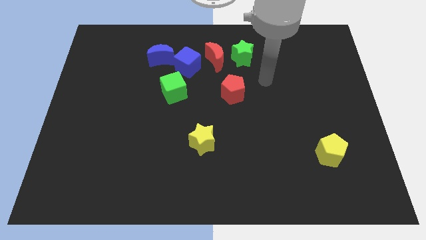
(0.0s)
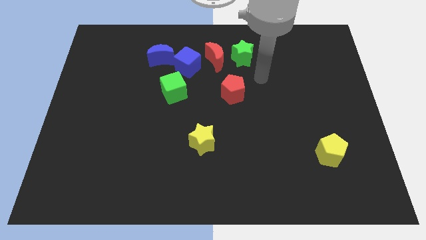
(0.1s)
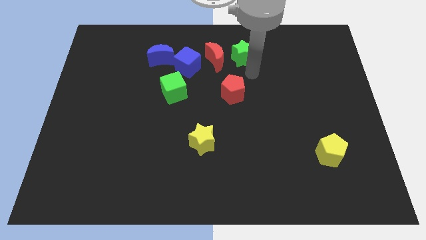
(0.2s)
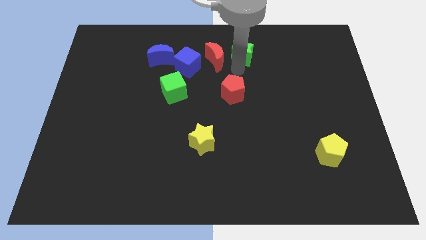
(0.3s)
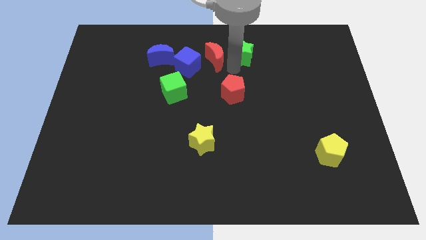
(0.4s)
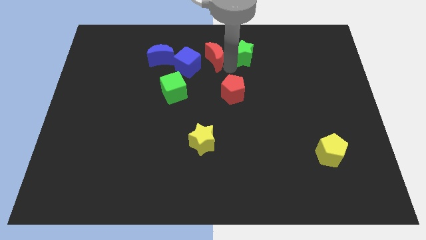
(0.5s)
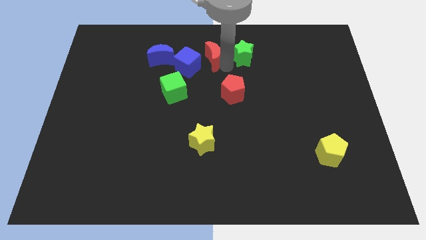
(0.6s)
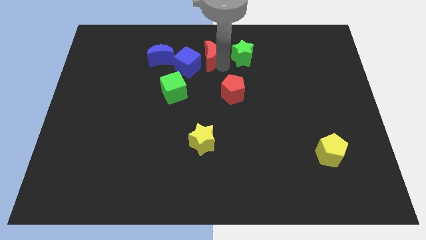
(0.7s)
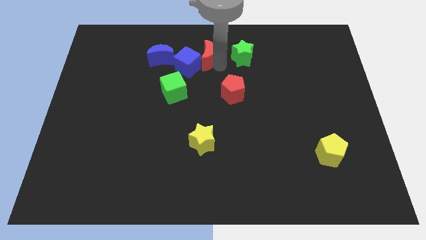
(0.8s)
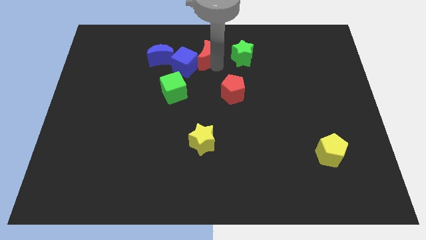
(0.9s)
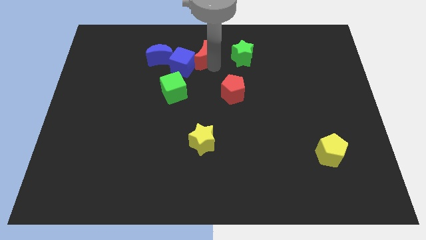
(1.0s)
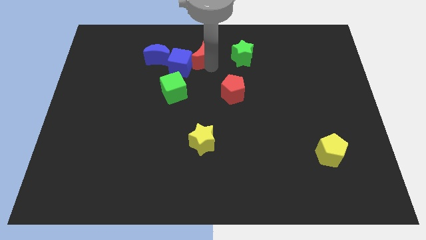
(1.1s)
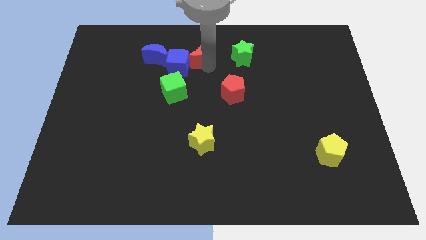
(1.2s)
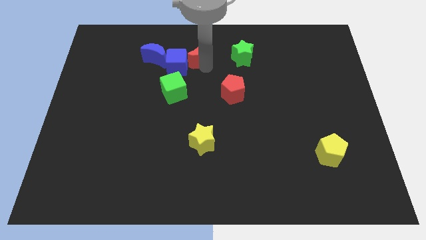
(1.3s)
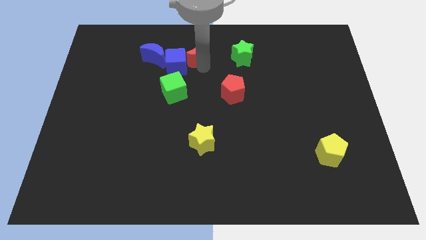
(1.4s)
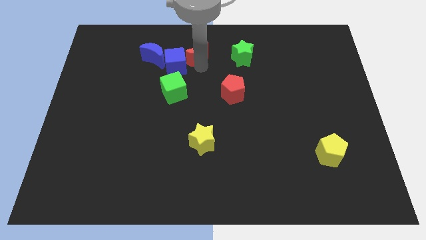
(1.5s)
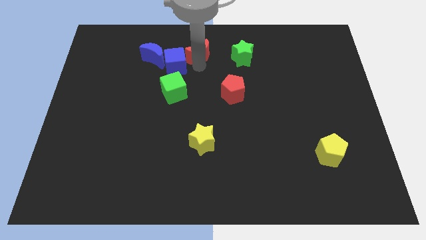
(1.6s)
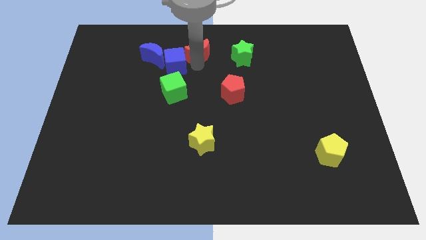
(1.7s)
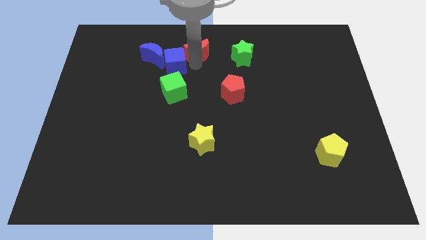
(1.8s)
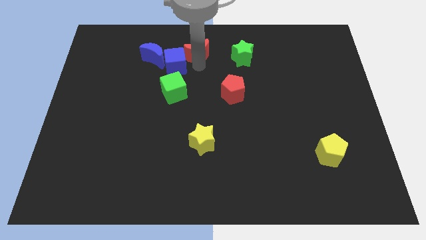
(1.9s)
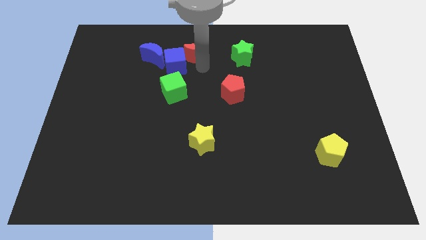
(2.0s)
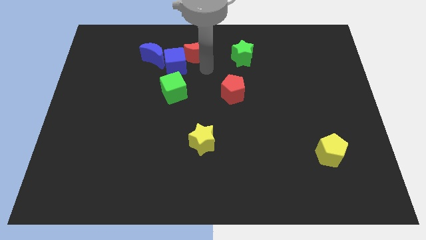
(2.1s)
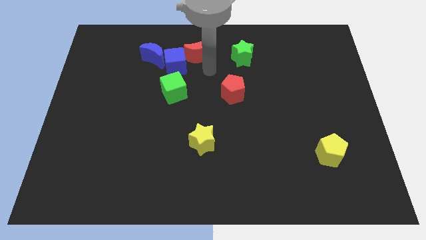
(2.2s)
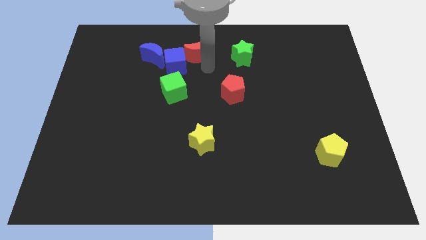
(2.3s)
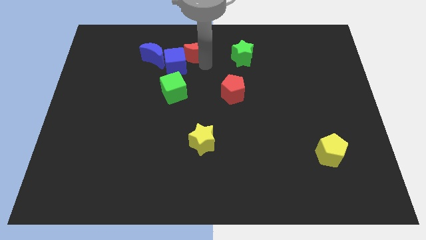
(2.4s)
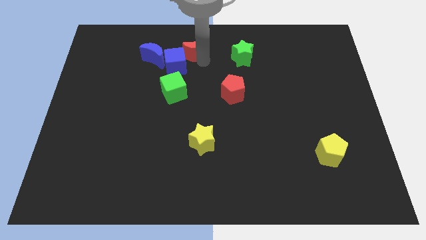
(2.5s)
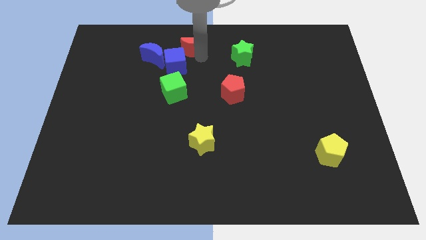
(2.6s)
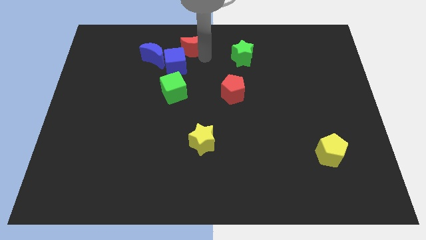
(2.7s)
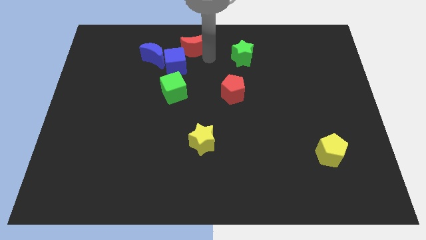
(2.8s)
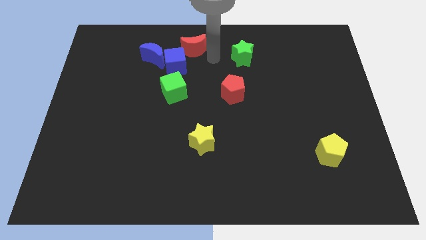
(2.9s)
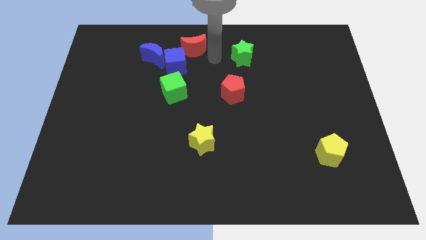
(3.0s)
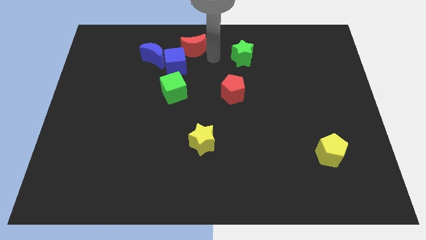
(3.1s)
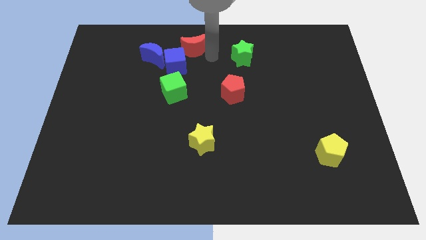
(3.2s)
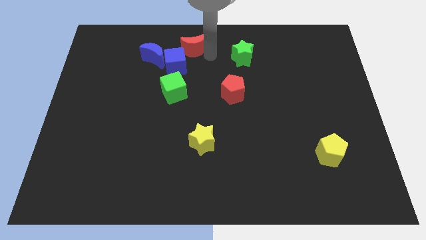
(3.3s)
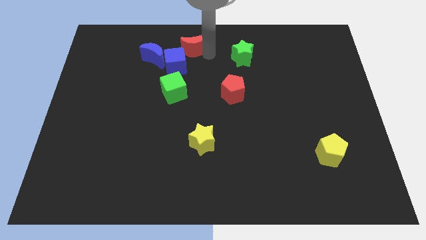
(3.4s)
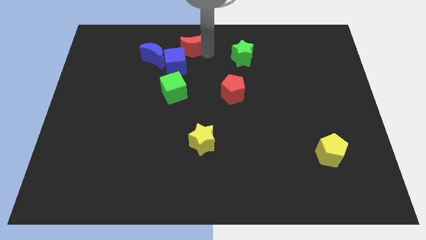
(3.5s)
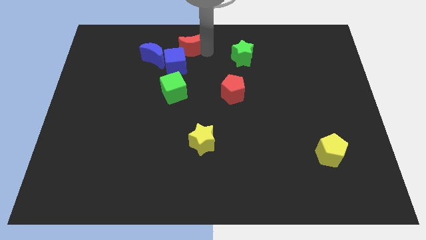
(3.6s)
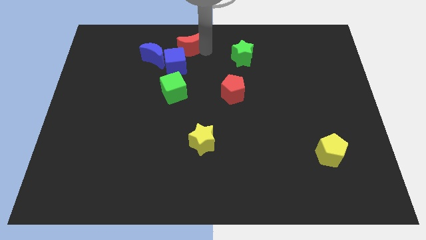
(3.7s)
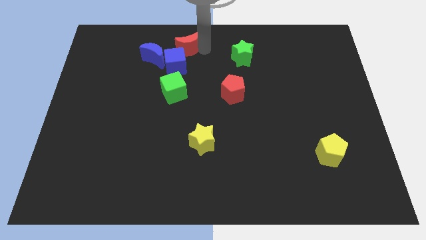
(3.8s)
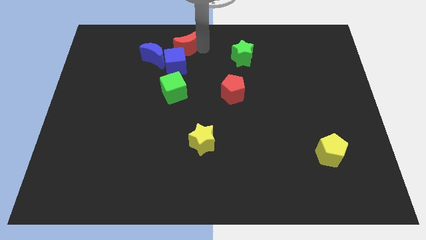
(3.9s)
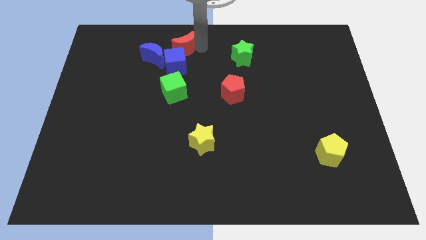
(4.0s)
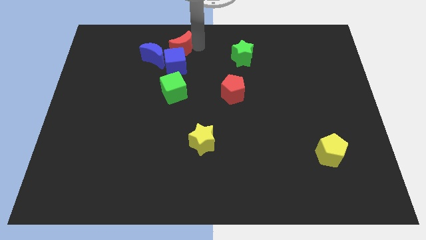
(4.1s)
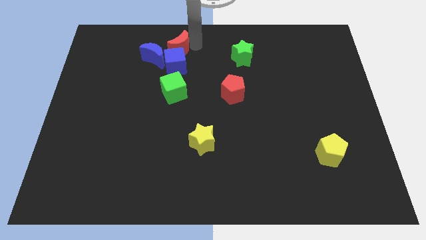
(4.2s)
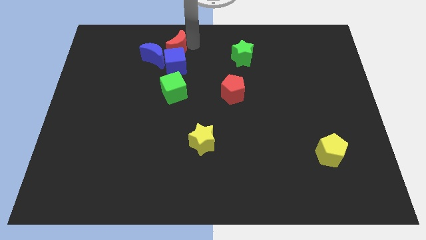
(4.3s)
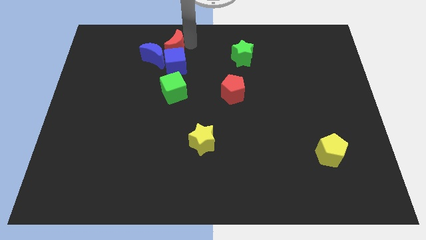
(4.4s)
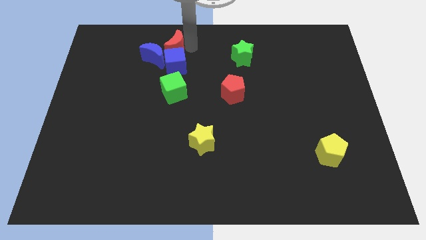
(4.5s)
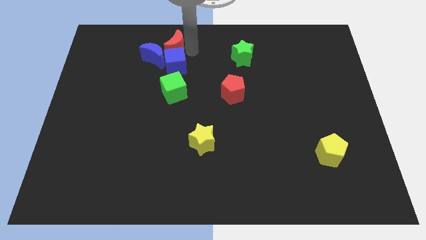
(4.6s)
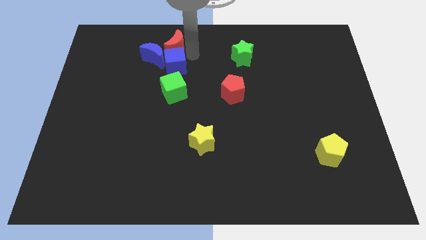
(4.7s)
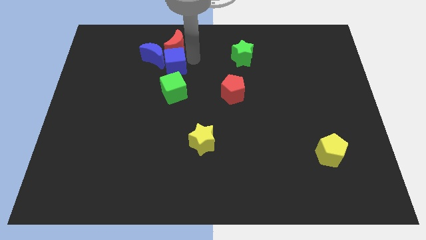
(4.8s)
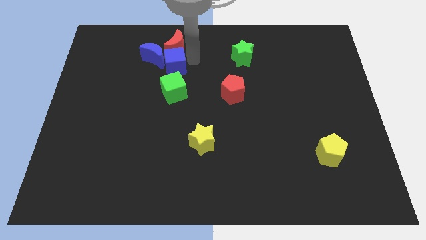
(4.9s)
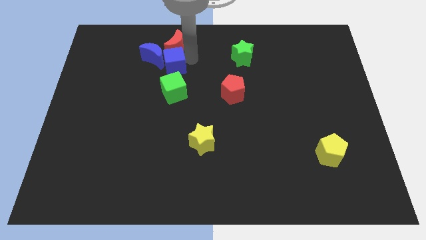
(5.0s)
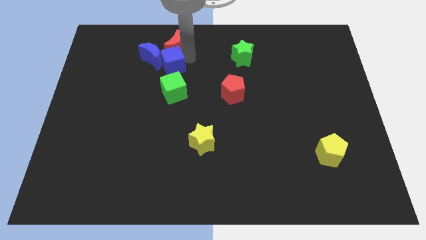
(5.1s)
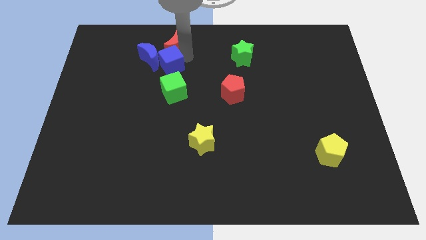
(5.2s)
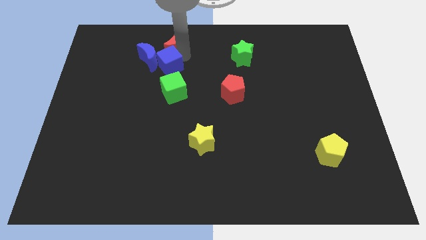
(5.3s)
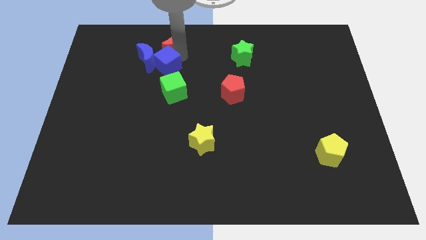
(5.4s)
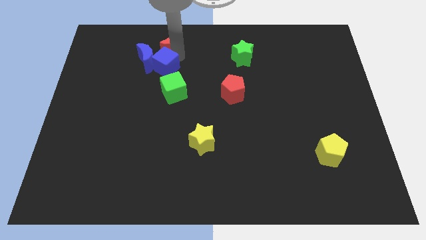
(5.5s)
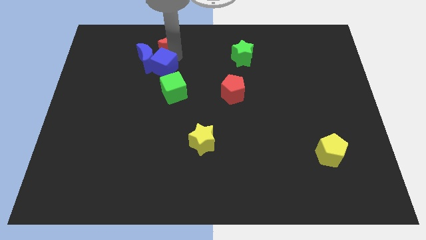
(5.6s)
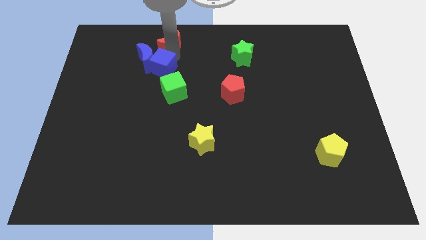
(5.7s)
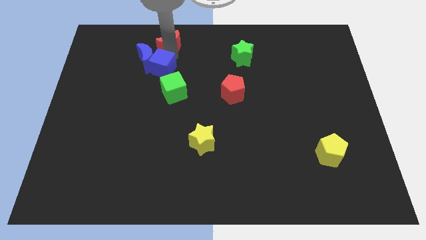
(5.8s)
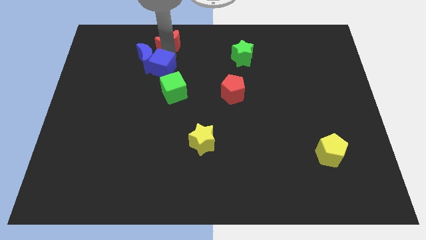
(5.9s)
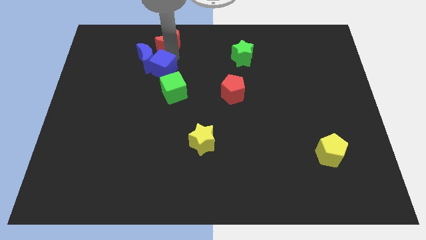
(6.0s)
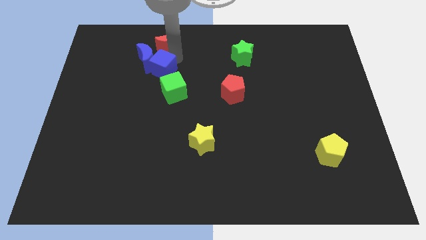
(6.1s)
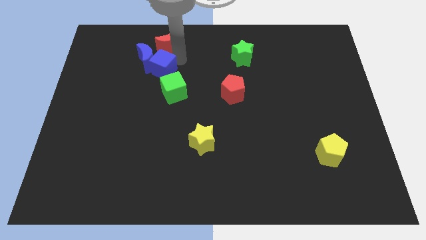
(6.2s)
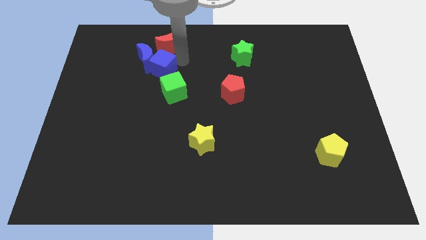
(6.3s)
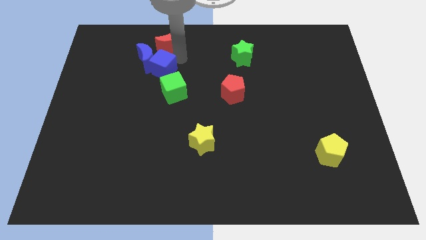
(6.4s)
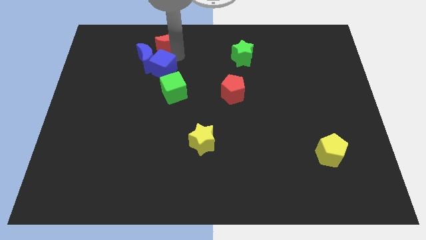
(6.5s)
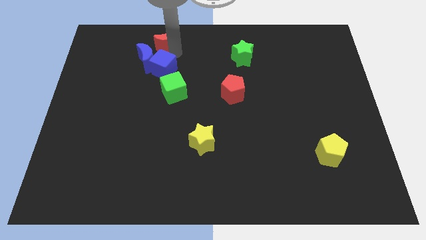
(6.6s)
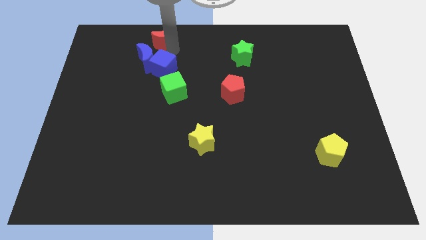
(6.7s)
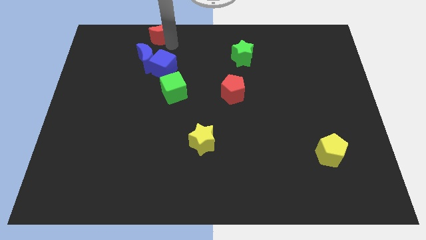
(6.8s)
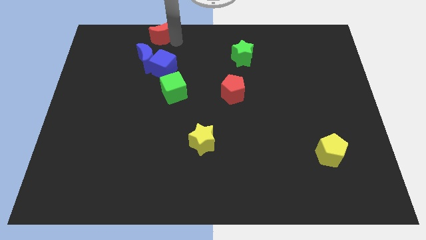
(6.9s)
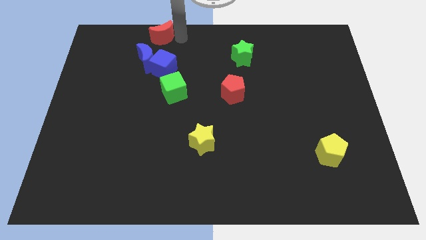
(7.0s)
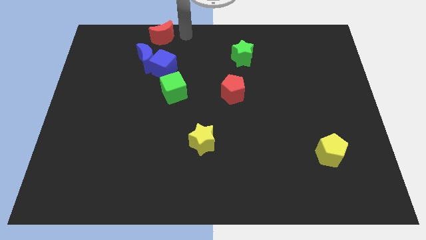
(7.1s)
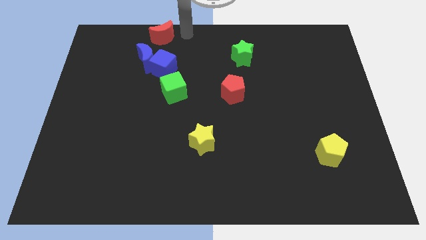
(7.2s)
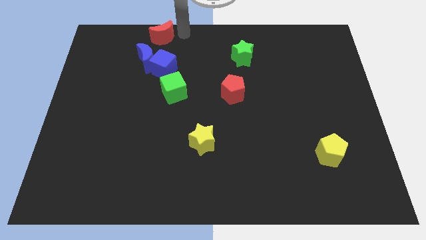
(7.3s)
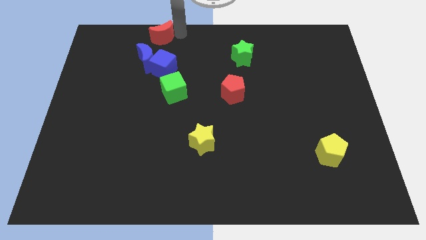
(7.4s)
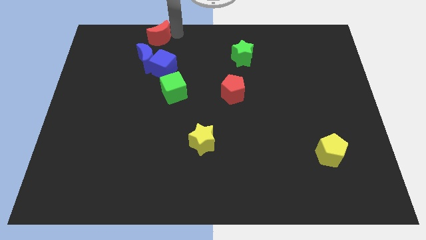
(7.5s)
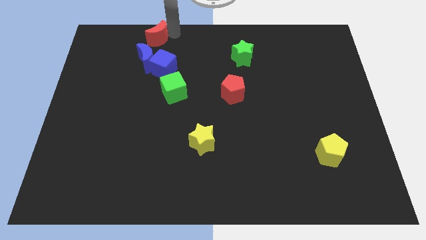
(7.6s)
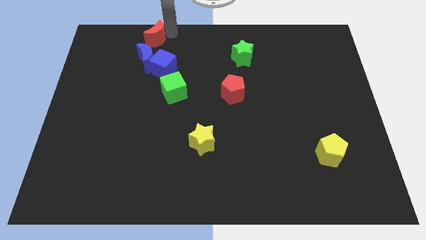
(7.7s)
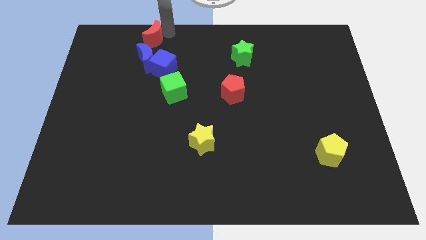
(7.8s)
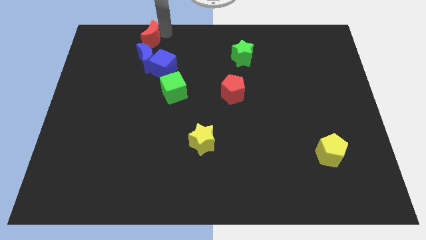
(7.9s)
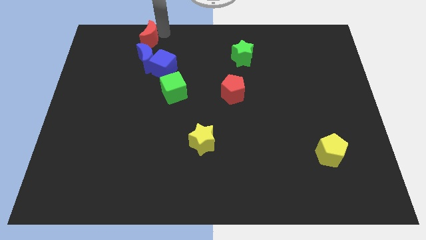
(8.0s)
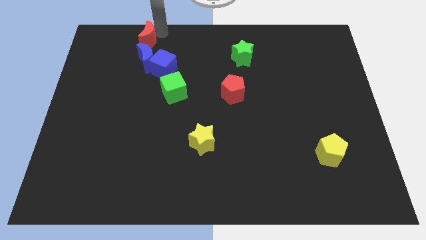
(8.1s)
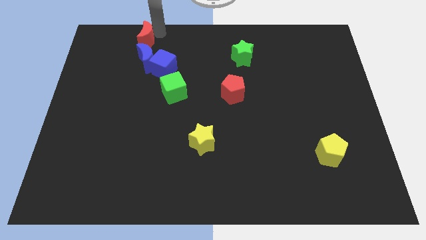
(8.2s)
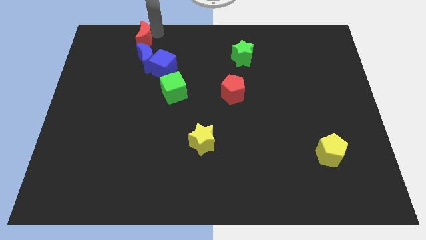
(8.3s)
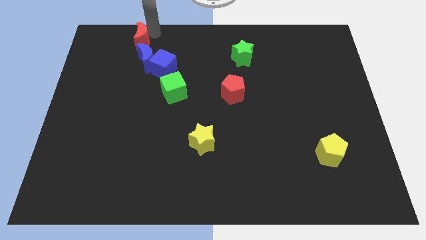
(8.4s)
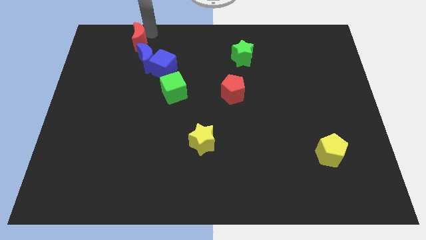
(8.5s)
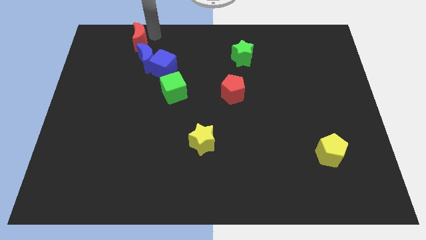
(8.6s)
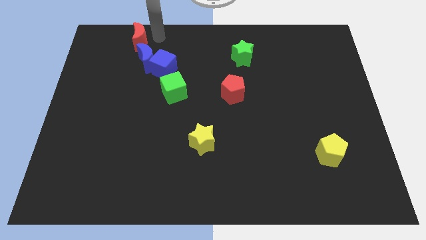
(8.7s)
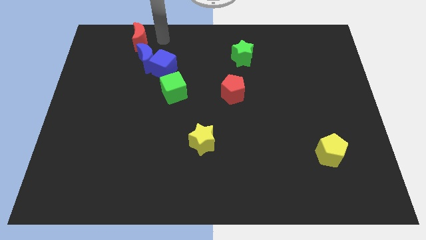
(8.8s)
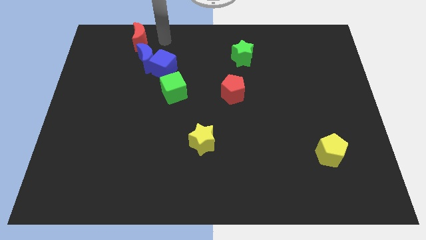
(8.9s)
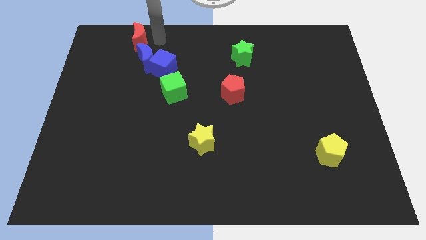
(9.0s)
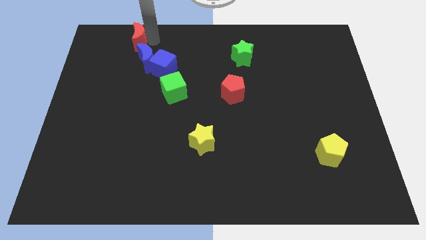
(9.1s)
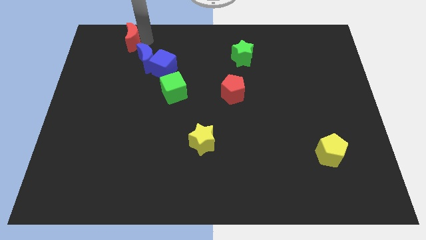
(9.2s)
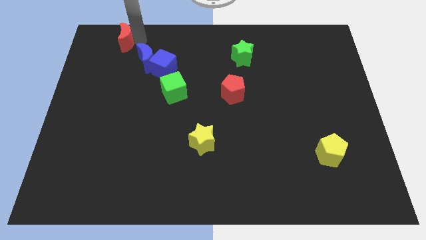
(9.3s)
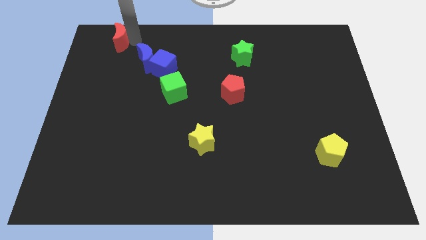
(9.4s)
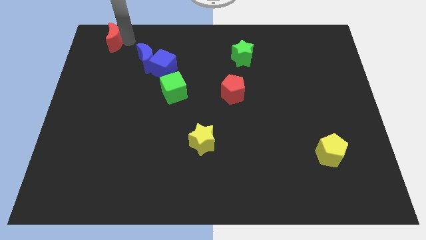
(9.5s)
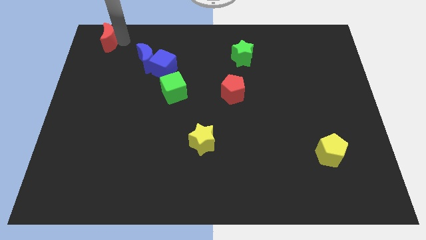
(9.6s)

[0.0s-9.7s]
push the red moon to the top left
